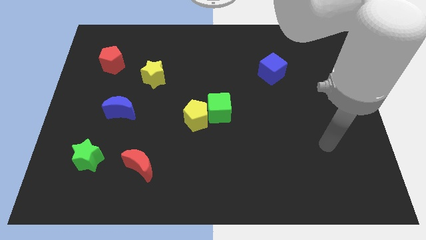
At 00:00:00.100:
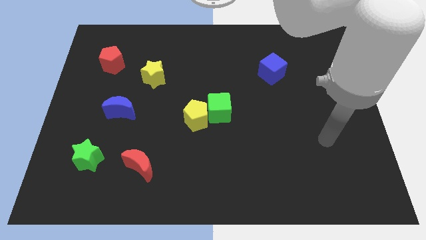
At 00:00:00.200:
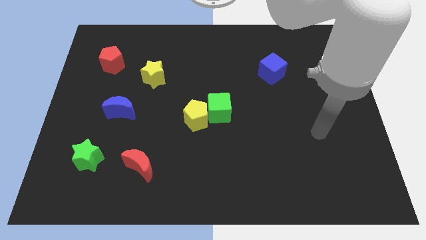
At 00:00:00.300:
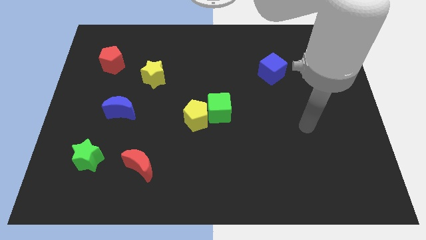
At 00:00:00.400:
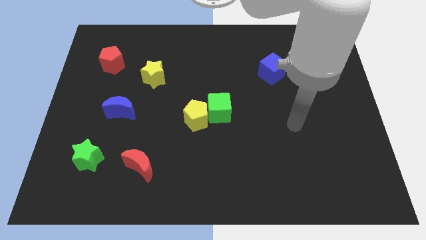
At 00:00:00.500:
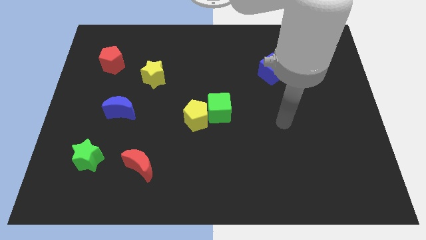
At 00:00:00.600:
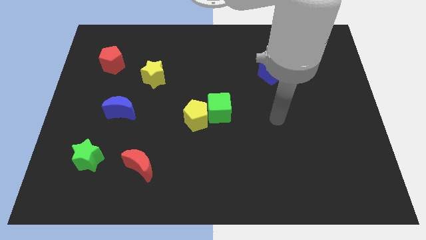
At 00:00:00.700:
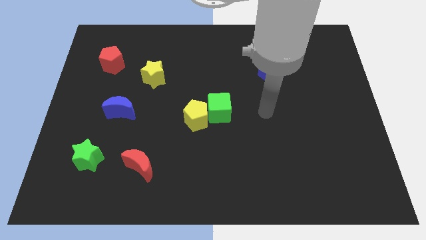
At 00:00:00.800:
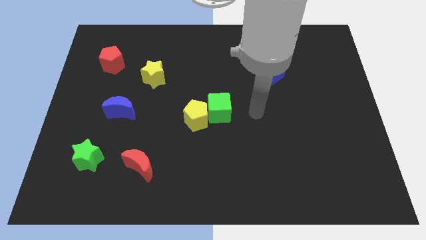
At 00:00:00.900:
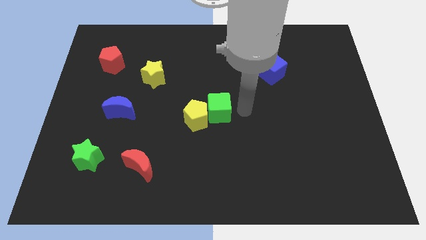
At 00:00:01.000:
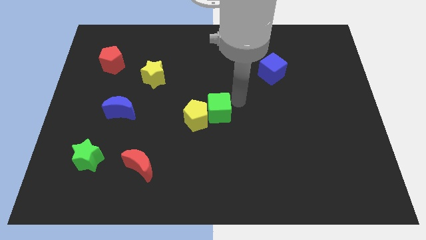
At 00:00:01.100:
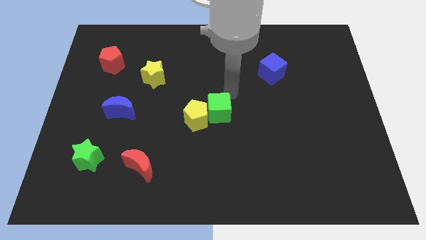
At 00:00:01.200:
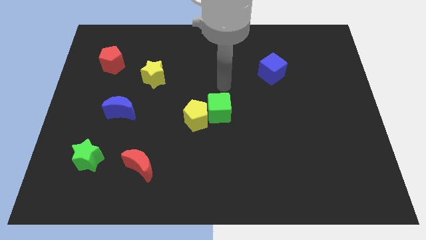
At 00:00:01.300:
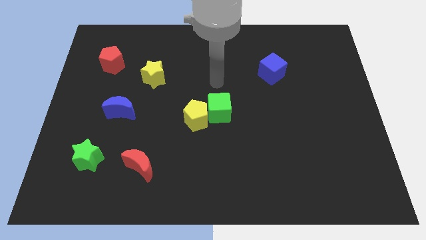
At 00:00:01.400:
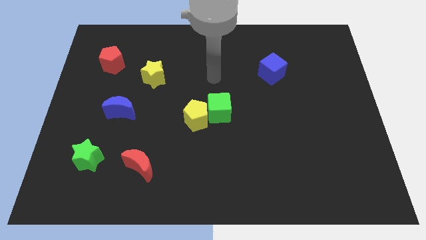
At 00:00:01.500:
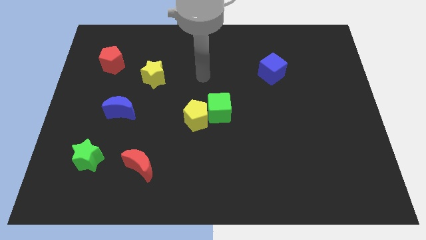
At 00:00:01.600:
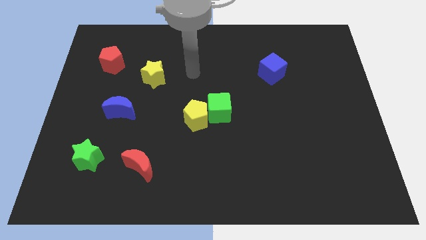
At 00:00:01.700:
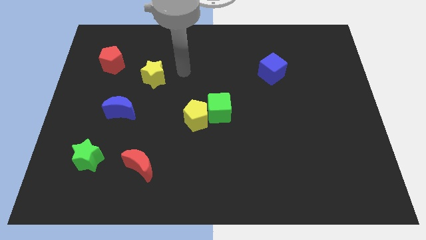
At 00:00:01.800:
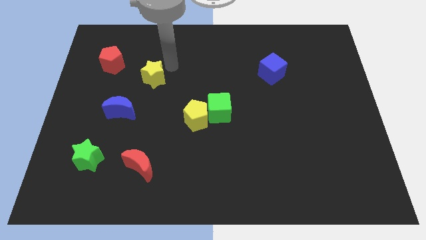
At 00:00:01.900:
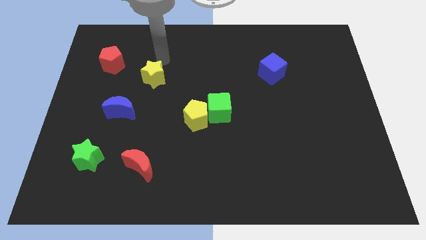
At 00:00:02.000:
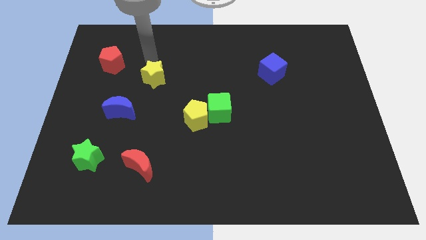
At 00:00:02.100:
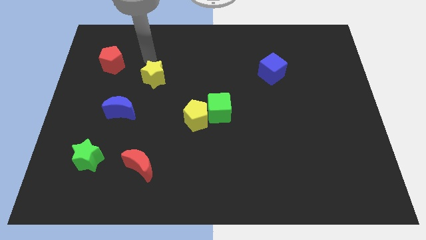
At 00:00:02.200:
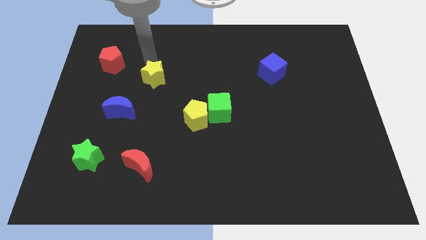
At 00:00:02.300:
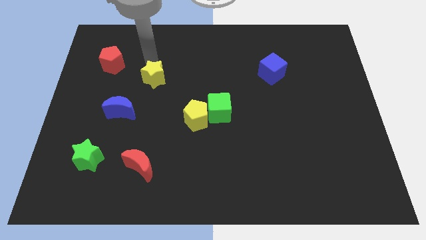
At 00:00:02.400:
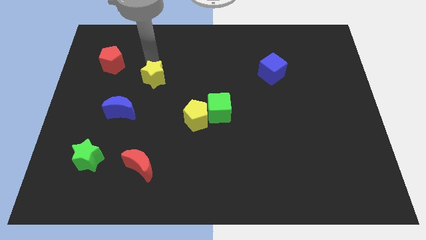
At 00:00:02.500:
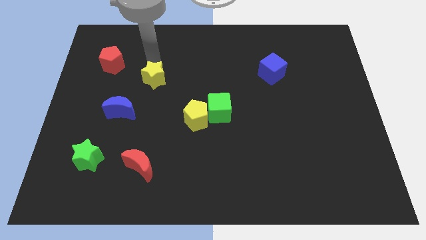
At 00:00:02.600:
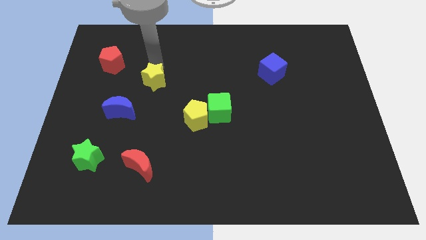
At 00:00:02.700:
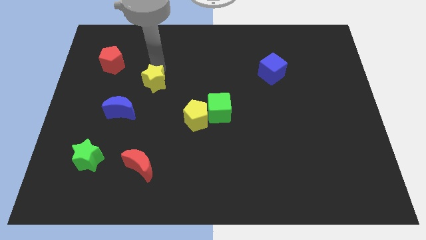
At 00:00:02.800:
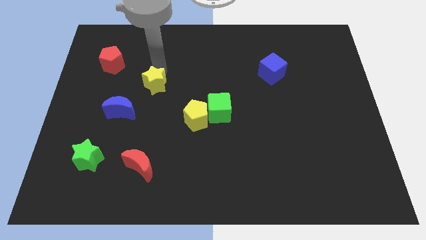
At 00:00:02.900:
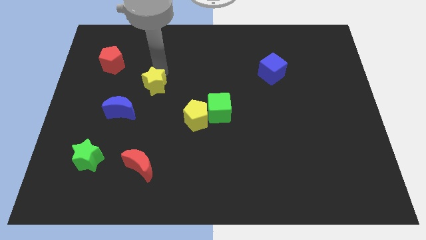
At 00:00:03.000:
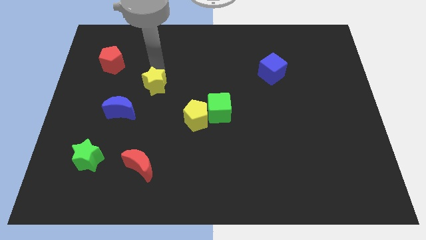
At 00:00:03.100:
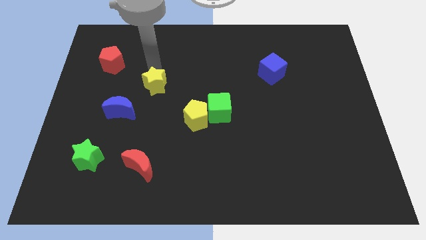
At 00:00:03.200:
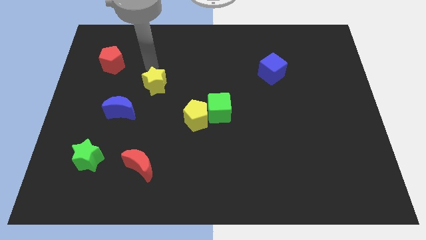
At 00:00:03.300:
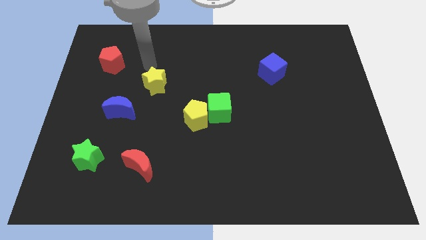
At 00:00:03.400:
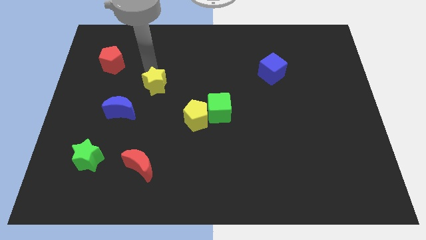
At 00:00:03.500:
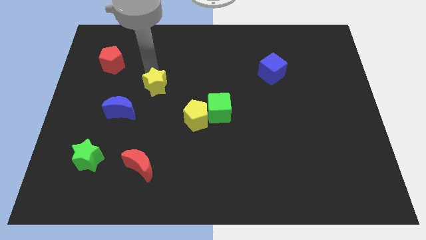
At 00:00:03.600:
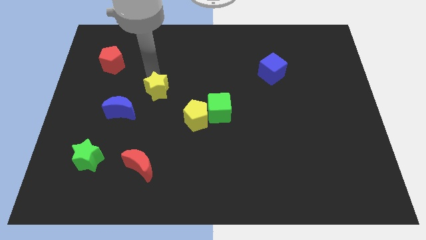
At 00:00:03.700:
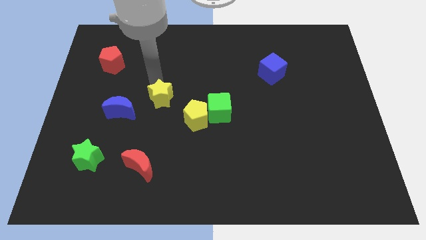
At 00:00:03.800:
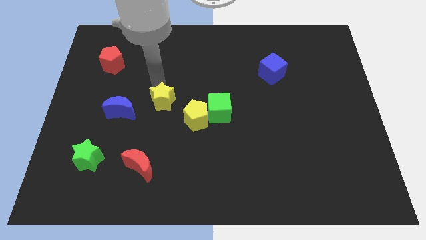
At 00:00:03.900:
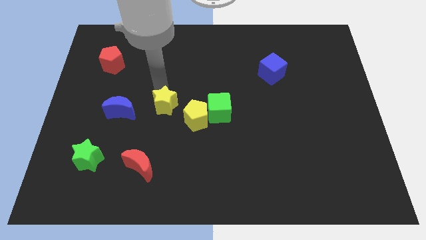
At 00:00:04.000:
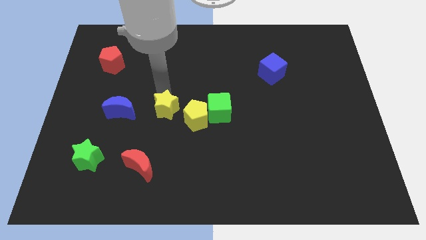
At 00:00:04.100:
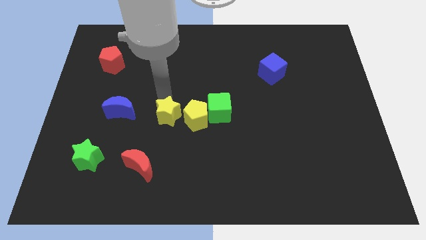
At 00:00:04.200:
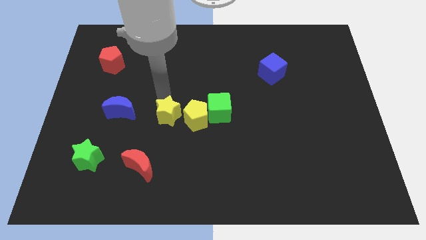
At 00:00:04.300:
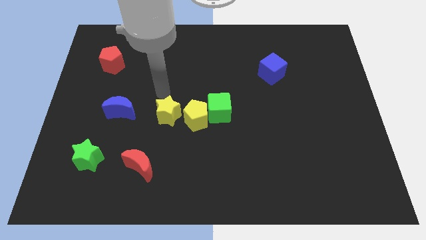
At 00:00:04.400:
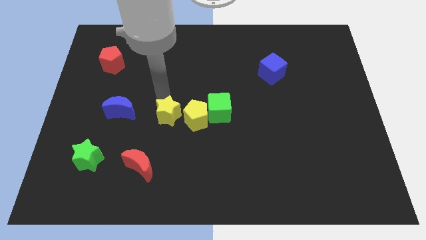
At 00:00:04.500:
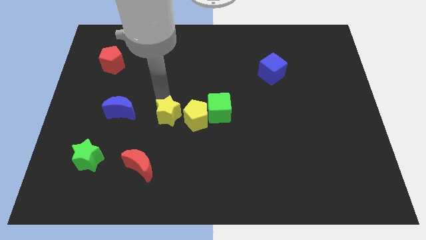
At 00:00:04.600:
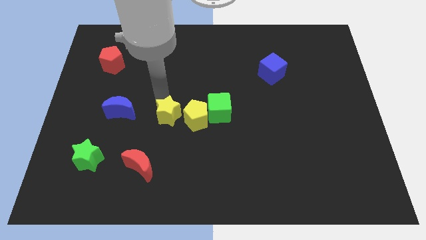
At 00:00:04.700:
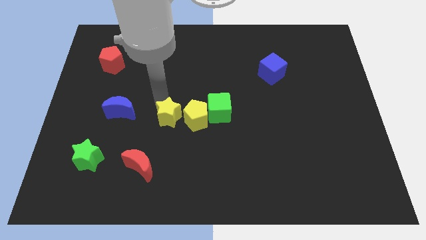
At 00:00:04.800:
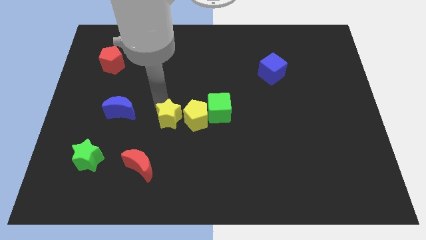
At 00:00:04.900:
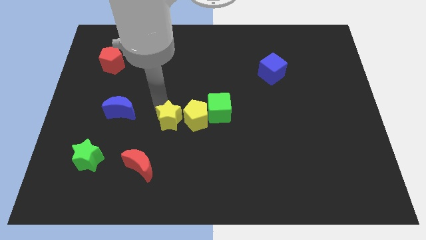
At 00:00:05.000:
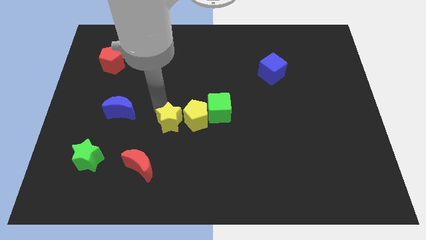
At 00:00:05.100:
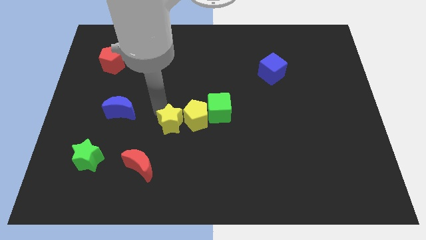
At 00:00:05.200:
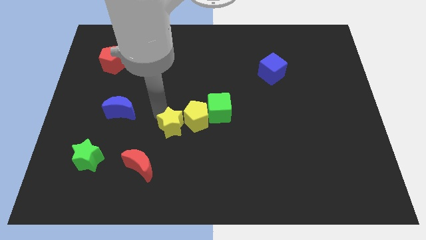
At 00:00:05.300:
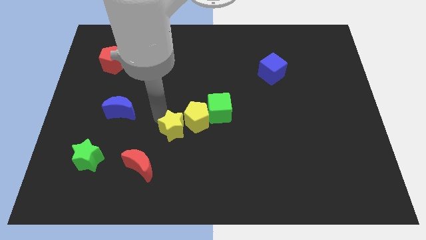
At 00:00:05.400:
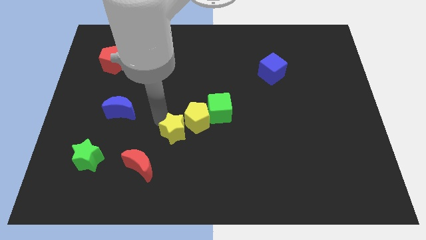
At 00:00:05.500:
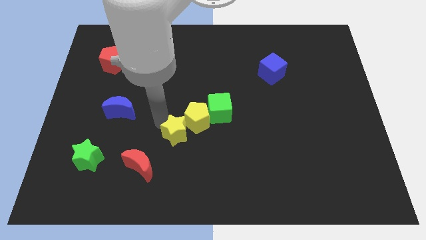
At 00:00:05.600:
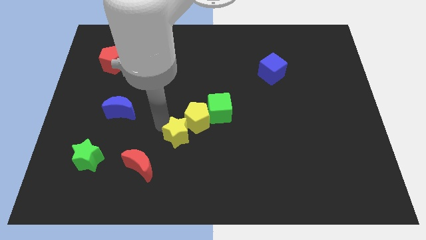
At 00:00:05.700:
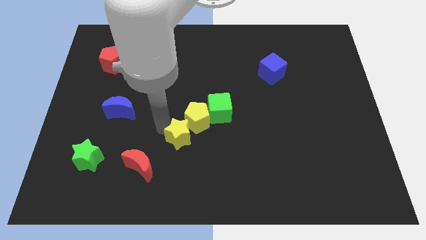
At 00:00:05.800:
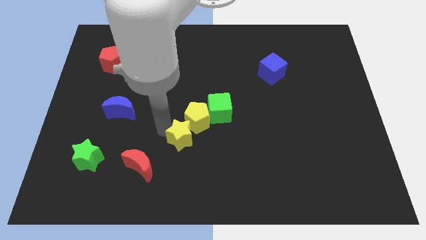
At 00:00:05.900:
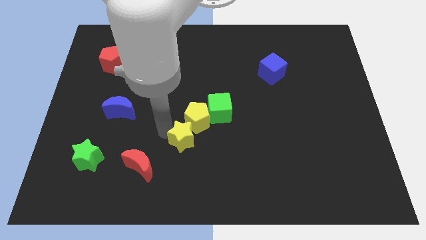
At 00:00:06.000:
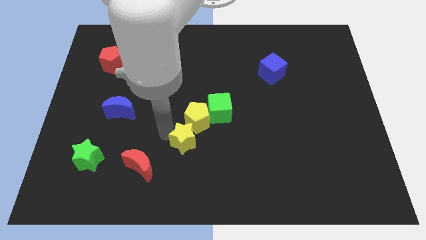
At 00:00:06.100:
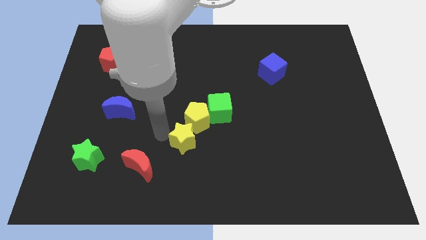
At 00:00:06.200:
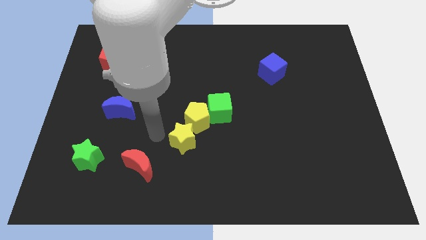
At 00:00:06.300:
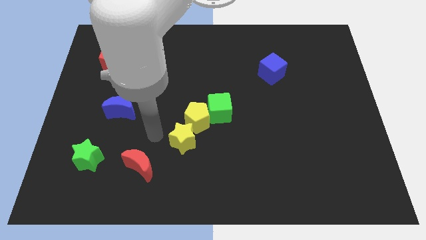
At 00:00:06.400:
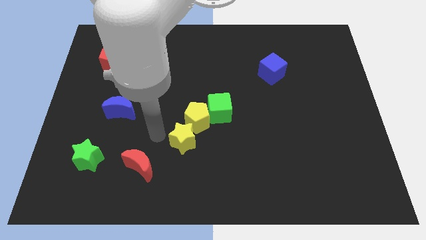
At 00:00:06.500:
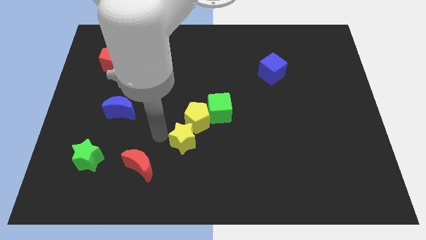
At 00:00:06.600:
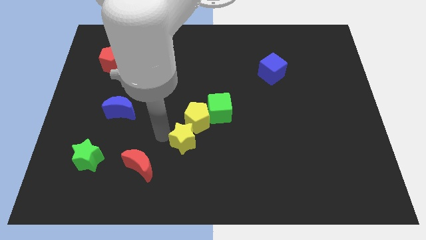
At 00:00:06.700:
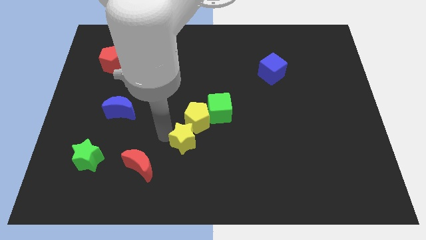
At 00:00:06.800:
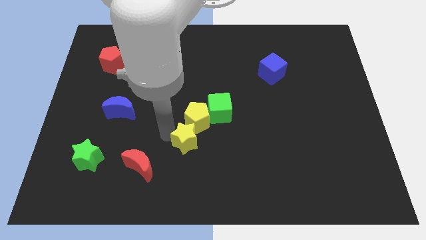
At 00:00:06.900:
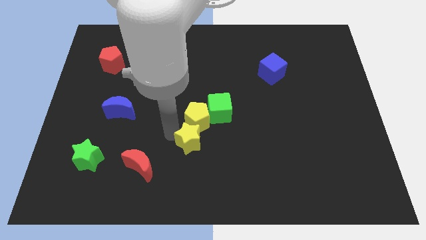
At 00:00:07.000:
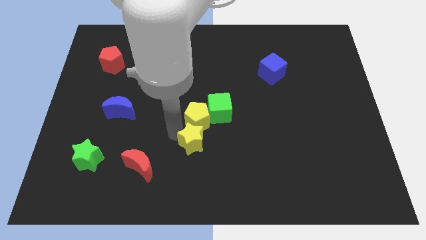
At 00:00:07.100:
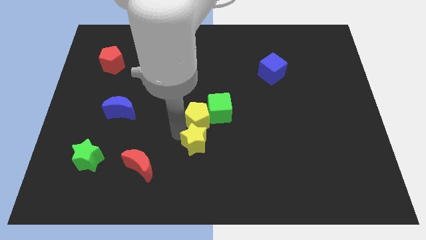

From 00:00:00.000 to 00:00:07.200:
slide the yellow star downwards and to the right diagonally

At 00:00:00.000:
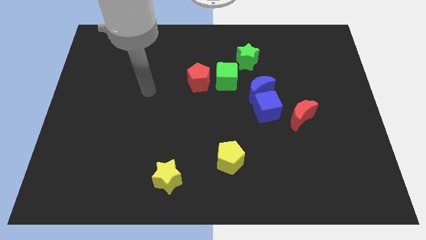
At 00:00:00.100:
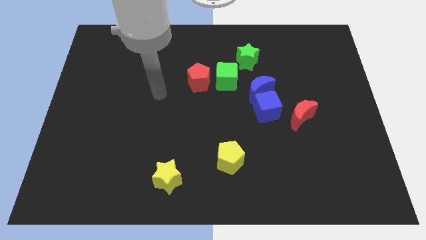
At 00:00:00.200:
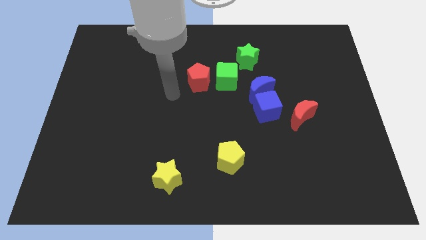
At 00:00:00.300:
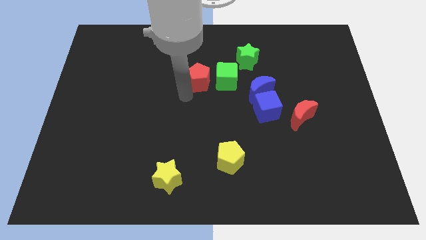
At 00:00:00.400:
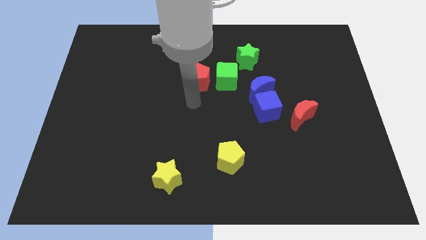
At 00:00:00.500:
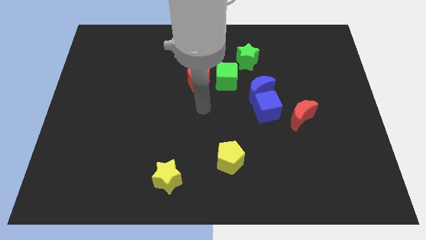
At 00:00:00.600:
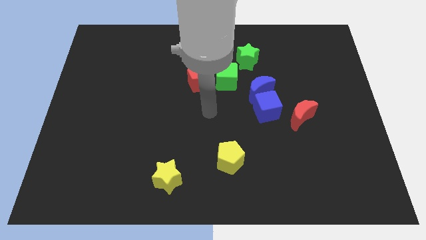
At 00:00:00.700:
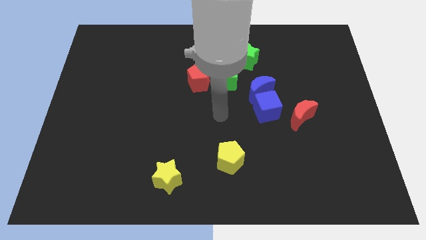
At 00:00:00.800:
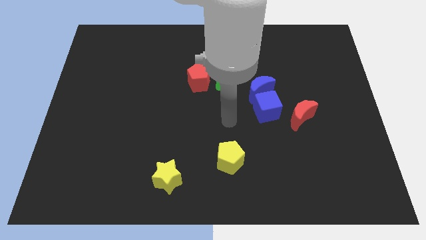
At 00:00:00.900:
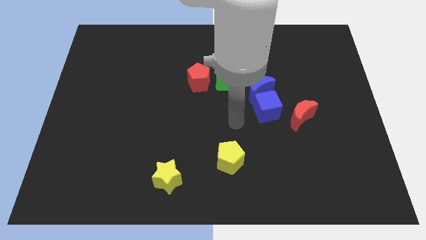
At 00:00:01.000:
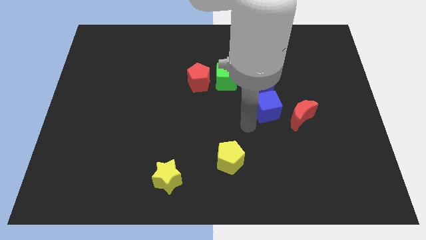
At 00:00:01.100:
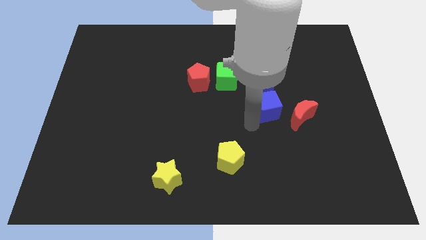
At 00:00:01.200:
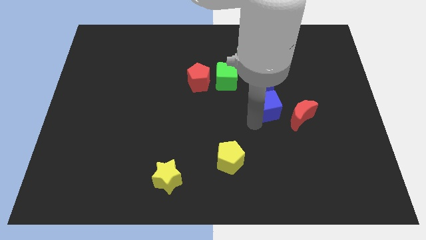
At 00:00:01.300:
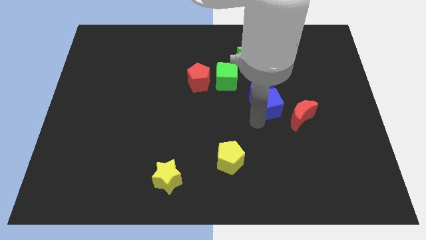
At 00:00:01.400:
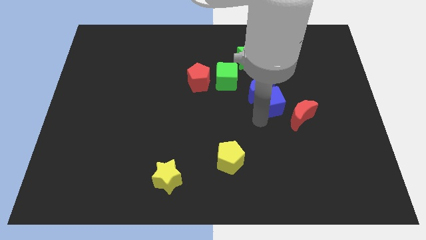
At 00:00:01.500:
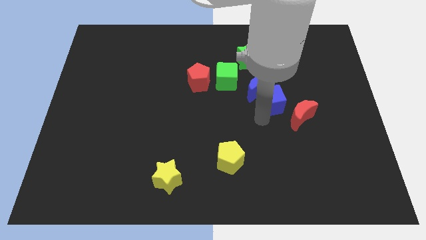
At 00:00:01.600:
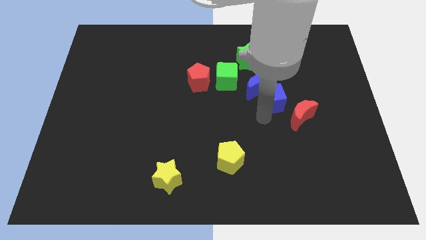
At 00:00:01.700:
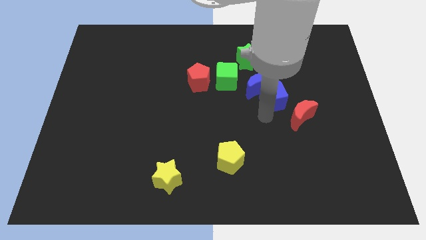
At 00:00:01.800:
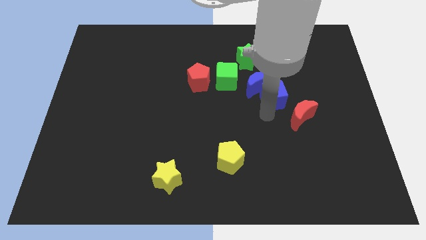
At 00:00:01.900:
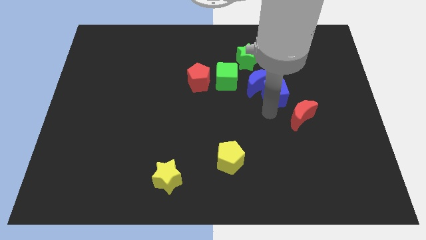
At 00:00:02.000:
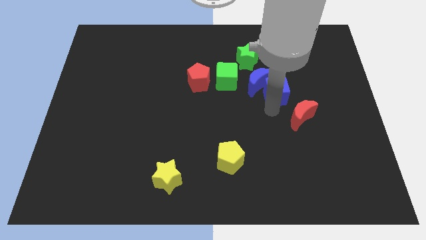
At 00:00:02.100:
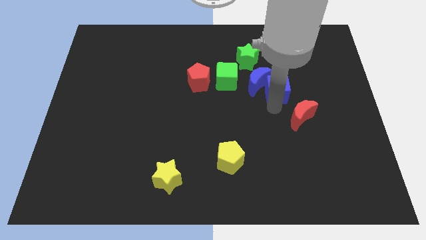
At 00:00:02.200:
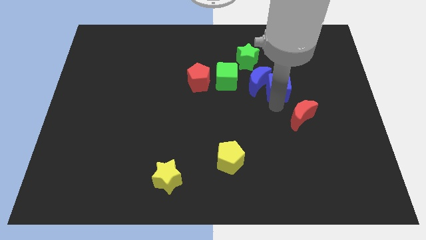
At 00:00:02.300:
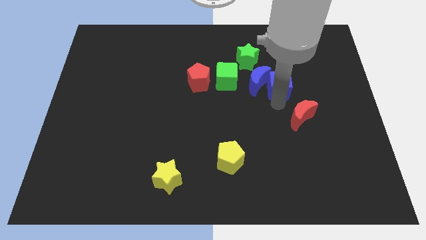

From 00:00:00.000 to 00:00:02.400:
slightly slide the blue cube upwards and to the right
